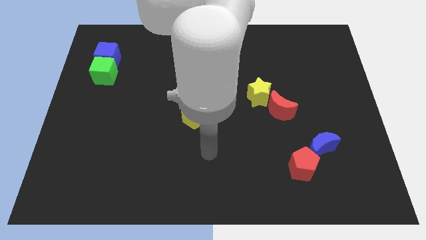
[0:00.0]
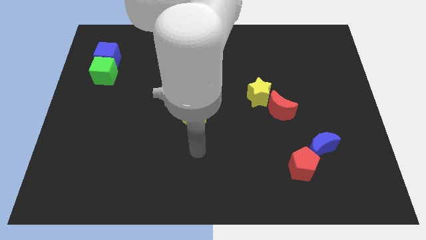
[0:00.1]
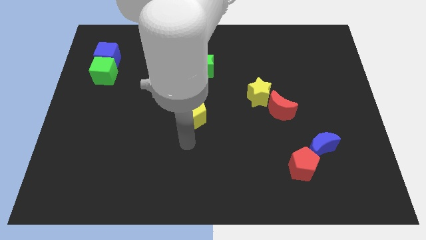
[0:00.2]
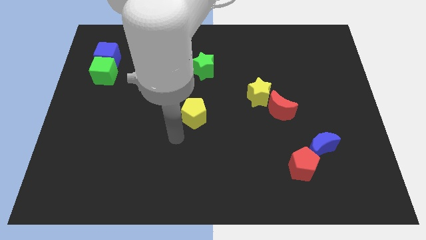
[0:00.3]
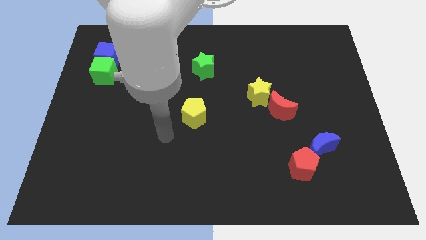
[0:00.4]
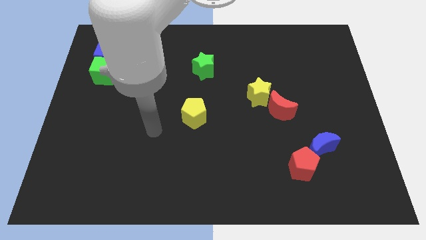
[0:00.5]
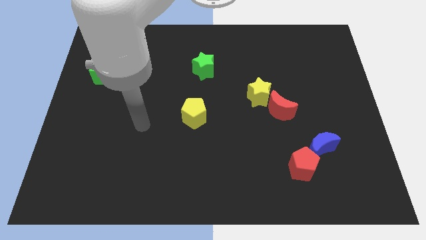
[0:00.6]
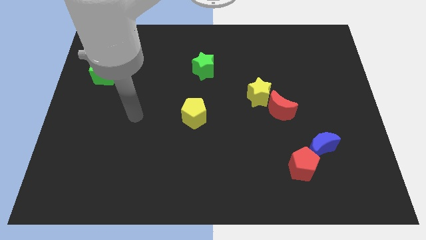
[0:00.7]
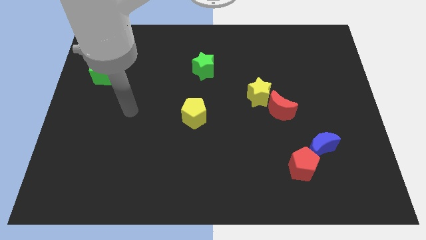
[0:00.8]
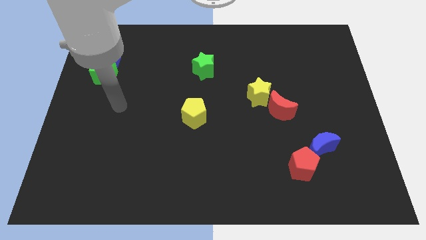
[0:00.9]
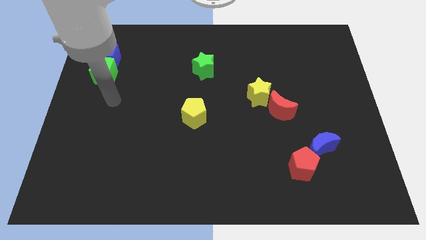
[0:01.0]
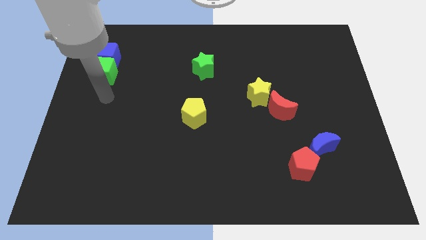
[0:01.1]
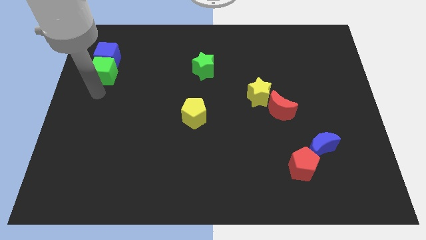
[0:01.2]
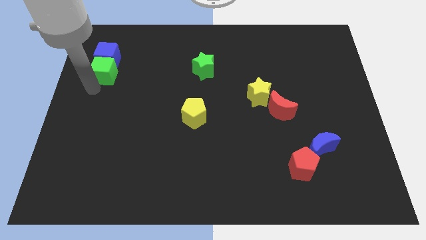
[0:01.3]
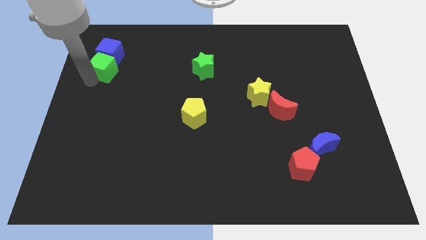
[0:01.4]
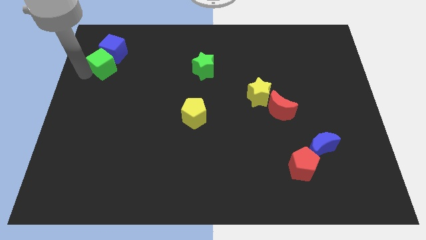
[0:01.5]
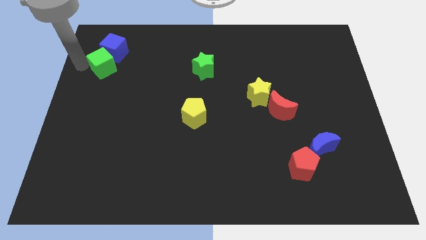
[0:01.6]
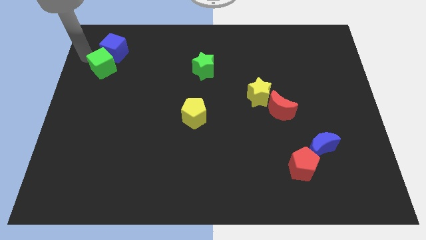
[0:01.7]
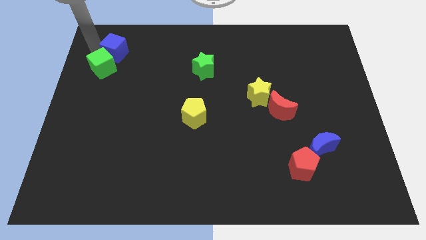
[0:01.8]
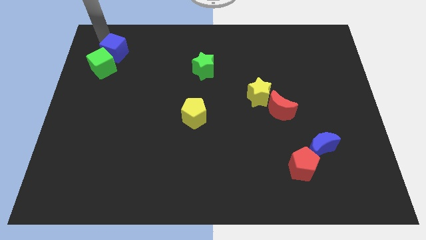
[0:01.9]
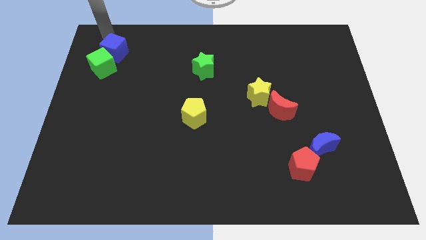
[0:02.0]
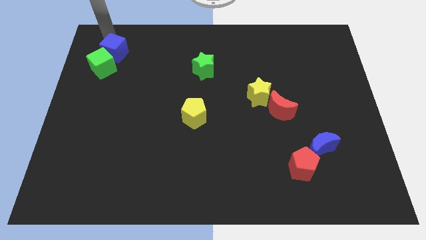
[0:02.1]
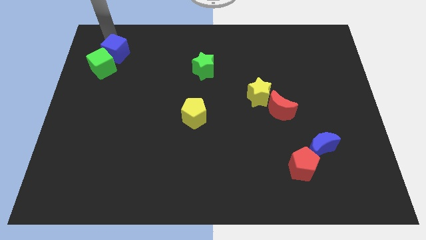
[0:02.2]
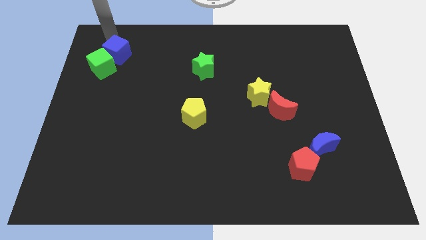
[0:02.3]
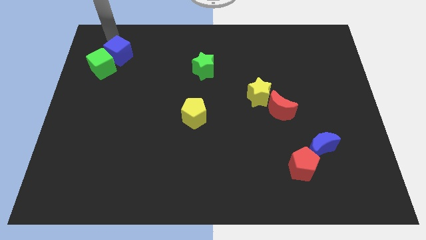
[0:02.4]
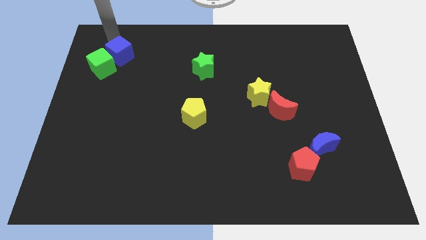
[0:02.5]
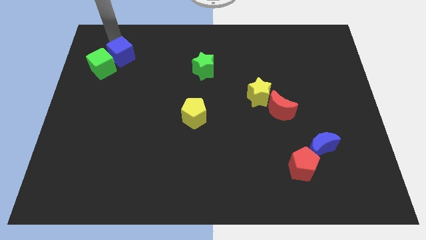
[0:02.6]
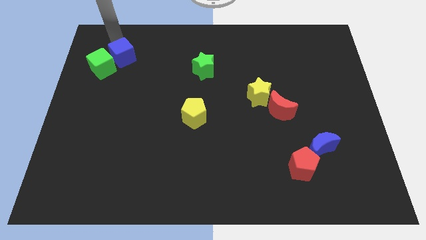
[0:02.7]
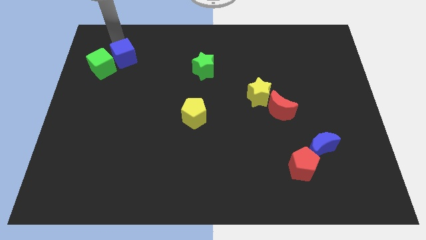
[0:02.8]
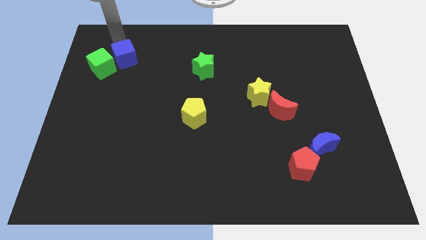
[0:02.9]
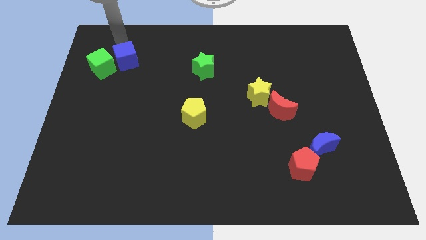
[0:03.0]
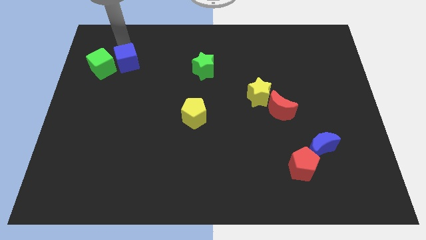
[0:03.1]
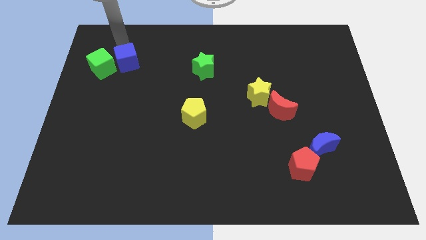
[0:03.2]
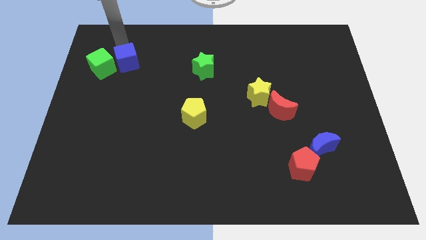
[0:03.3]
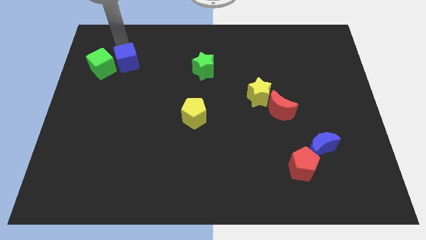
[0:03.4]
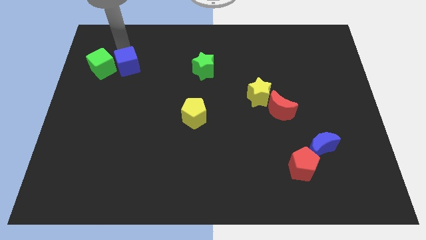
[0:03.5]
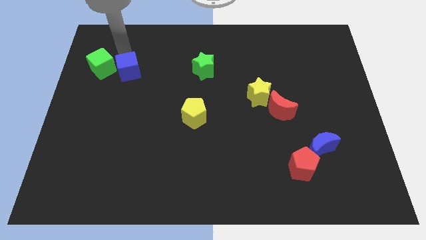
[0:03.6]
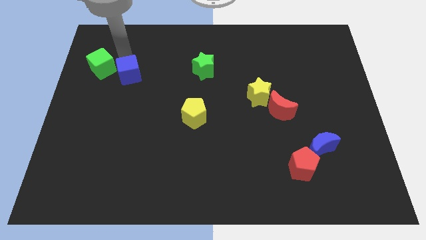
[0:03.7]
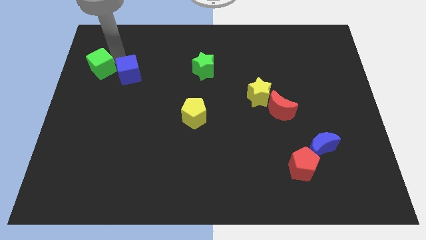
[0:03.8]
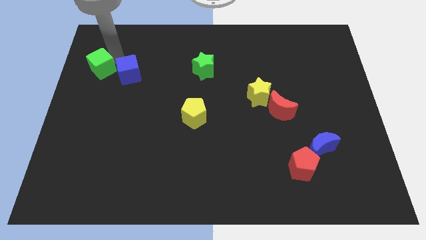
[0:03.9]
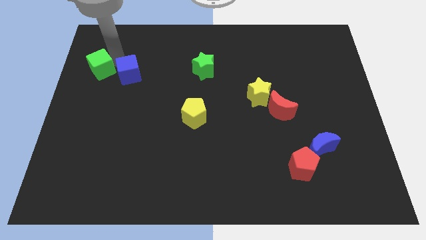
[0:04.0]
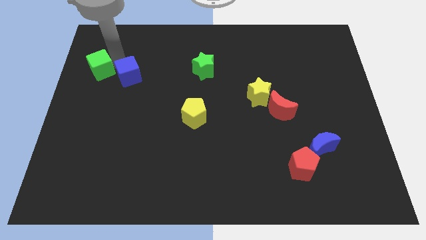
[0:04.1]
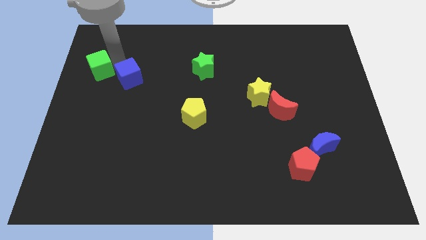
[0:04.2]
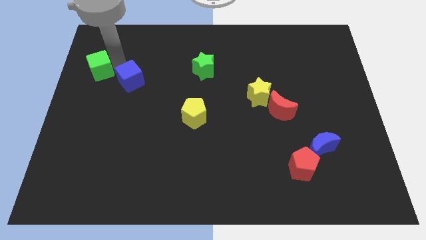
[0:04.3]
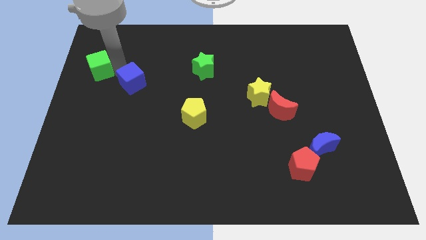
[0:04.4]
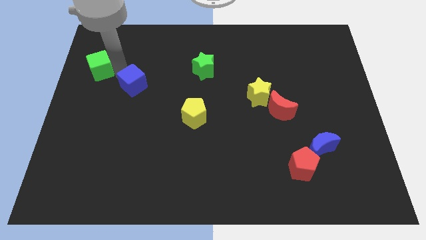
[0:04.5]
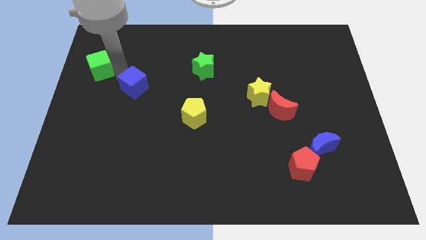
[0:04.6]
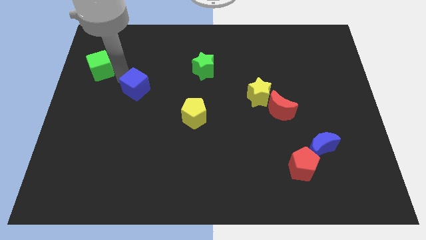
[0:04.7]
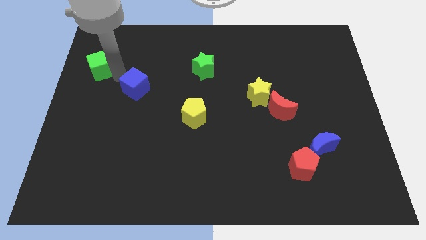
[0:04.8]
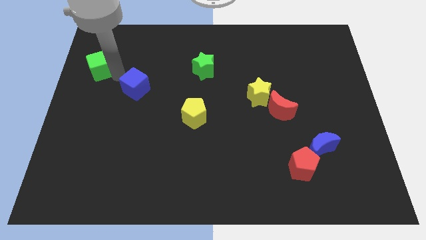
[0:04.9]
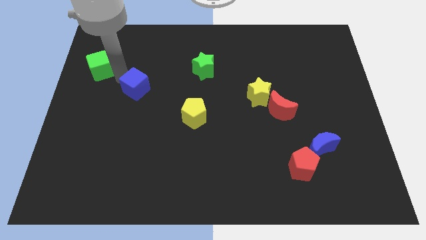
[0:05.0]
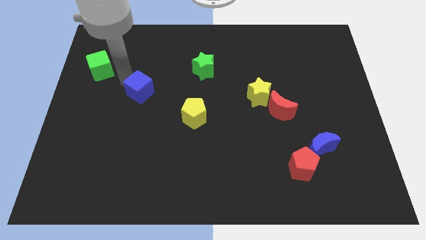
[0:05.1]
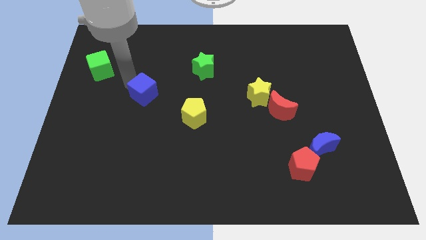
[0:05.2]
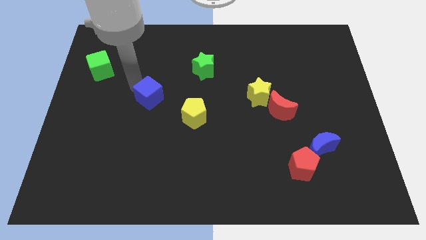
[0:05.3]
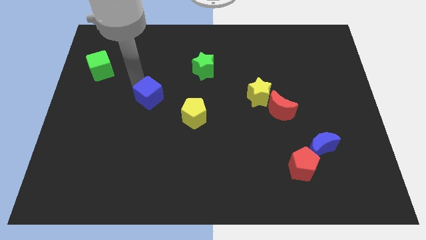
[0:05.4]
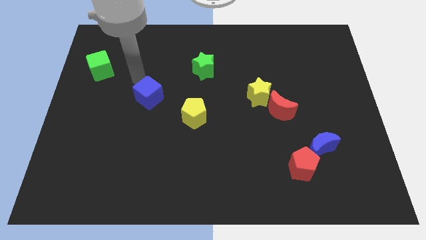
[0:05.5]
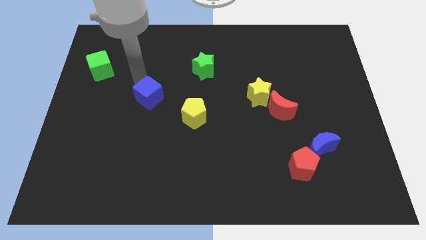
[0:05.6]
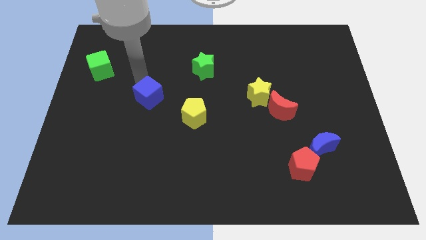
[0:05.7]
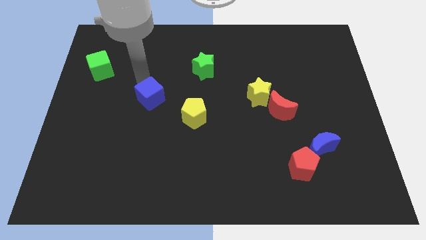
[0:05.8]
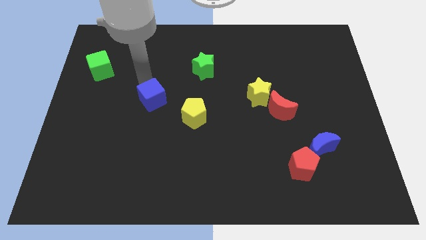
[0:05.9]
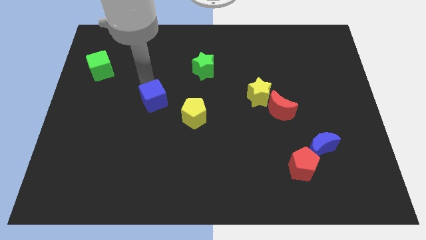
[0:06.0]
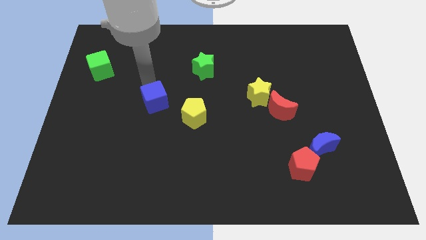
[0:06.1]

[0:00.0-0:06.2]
move the blue cube downwards and then to the right

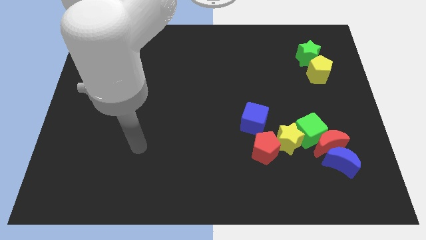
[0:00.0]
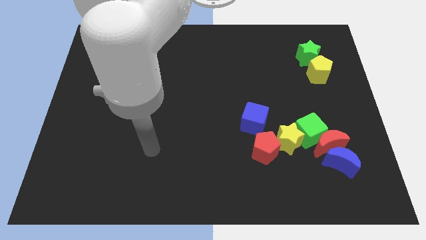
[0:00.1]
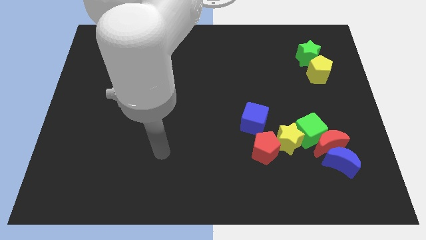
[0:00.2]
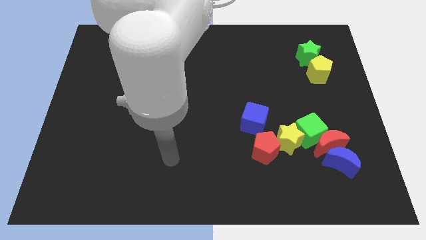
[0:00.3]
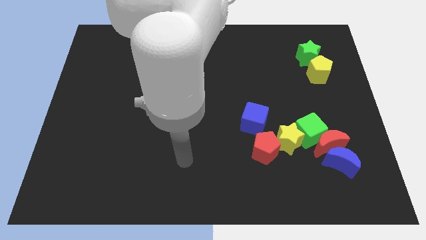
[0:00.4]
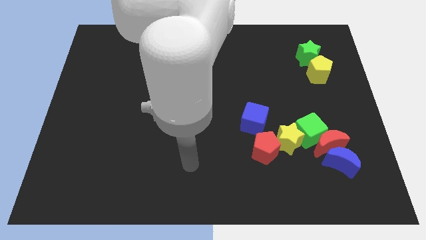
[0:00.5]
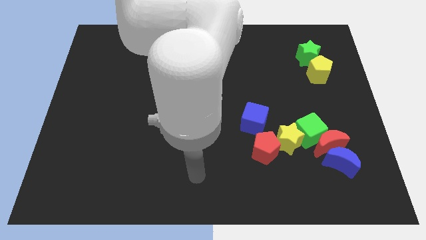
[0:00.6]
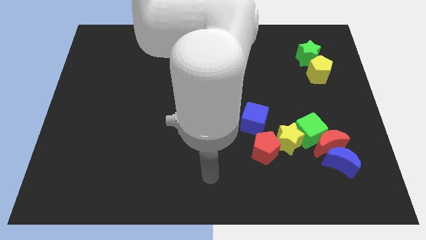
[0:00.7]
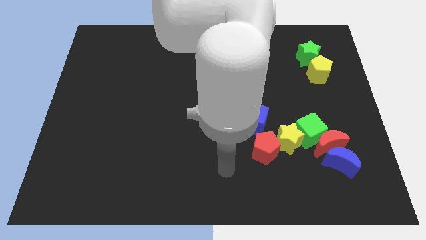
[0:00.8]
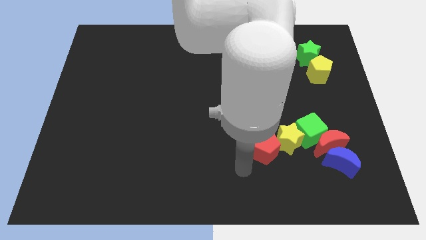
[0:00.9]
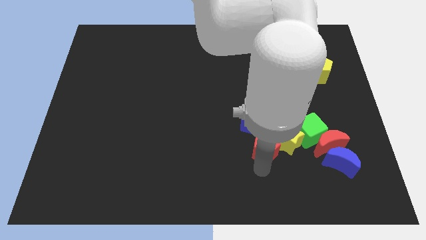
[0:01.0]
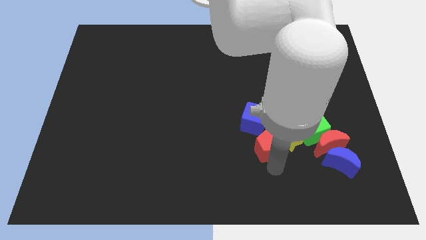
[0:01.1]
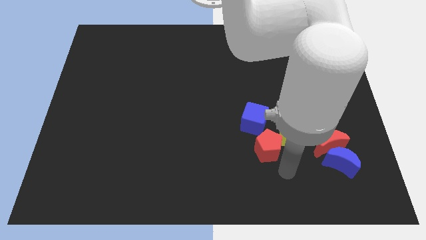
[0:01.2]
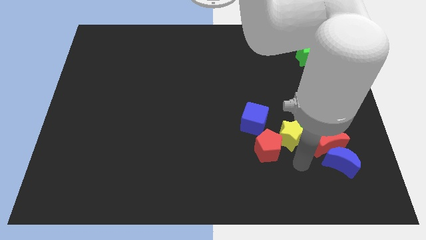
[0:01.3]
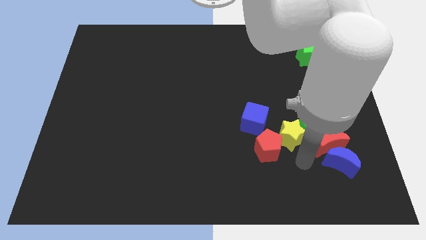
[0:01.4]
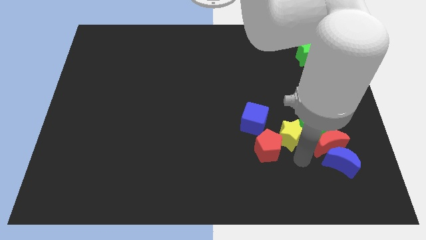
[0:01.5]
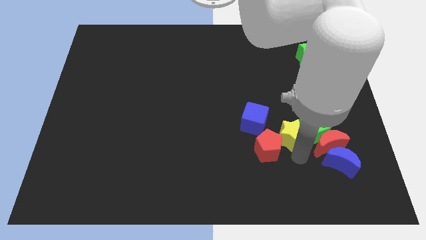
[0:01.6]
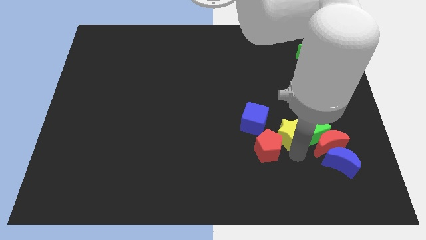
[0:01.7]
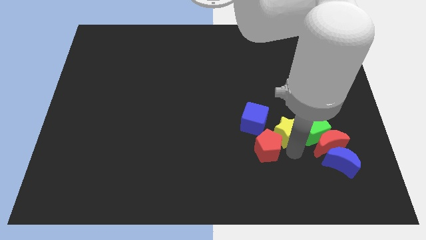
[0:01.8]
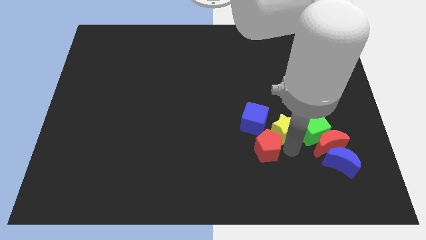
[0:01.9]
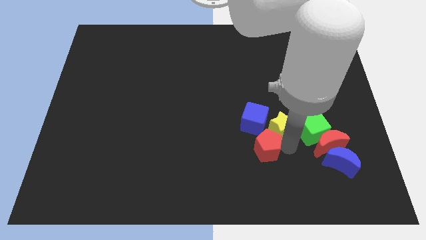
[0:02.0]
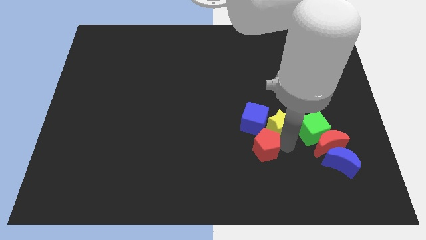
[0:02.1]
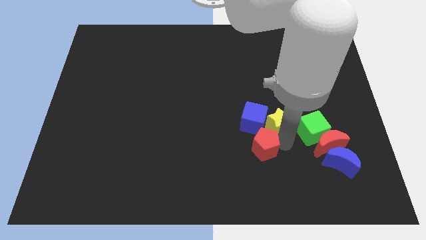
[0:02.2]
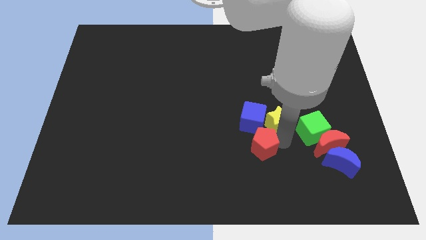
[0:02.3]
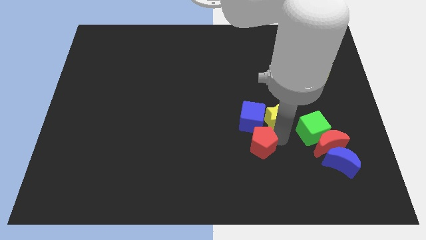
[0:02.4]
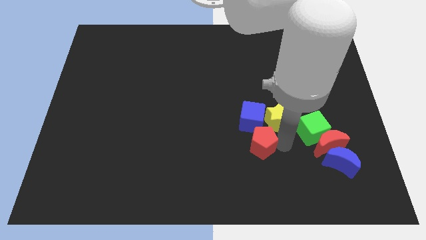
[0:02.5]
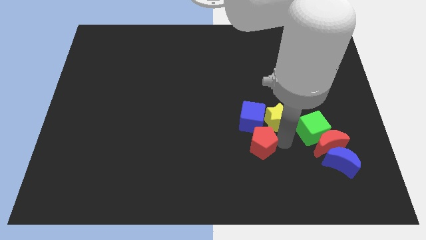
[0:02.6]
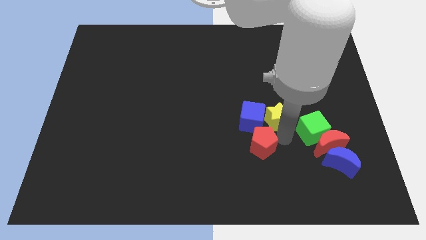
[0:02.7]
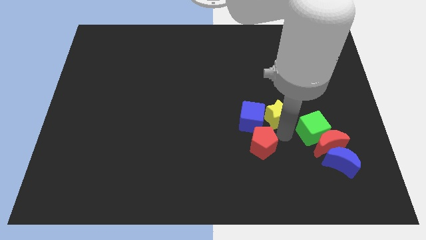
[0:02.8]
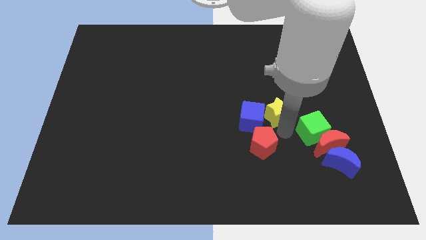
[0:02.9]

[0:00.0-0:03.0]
move the yellow star somewhat up
